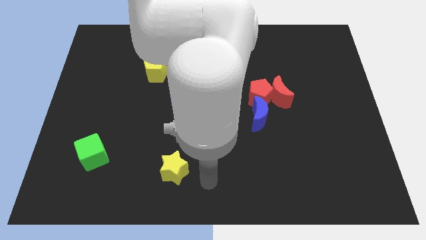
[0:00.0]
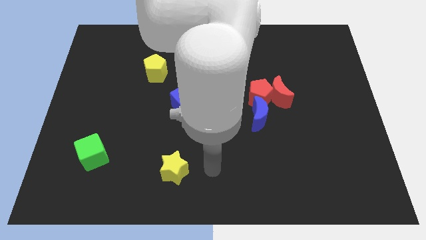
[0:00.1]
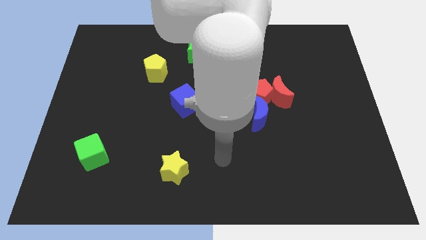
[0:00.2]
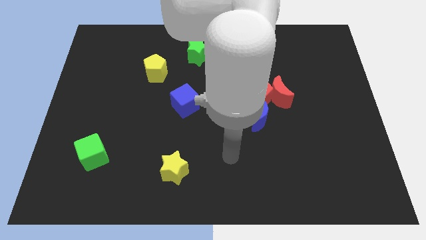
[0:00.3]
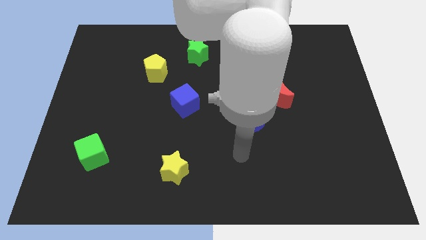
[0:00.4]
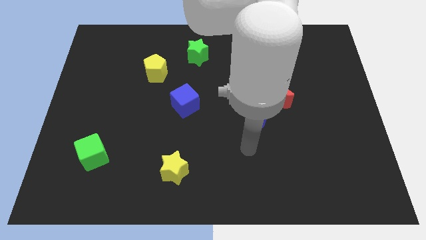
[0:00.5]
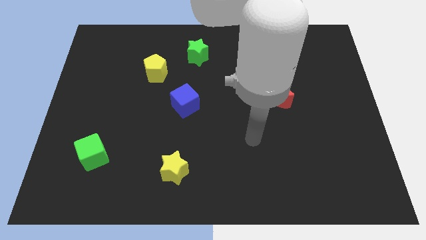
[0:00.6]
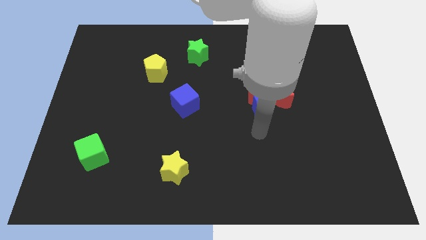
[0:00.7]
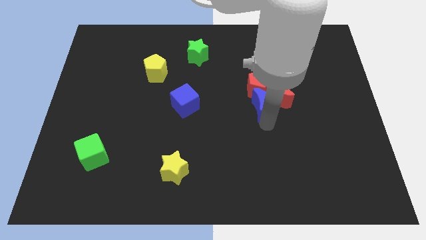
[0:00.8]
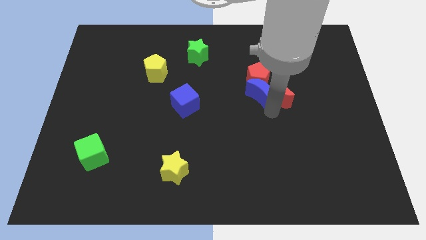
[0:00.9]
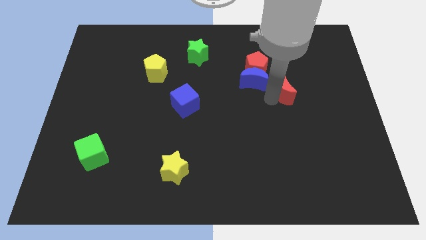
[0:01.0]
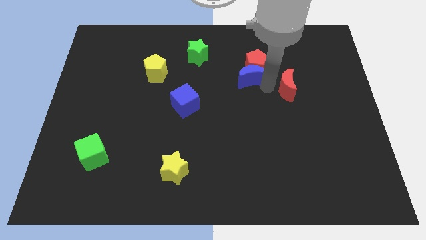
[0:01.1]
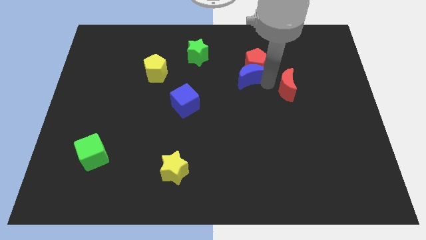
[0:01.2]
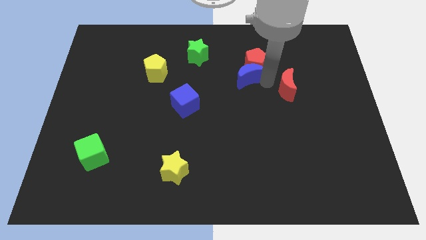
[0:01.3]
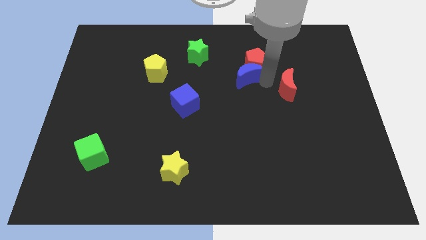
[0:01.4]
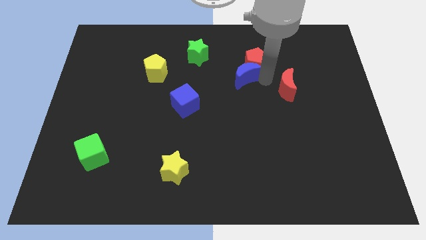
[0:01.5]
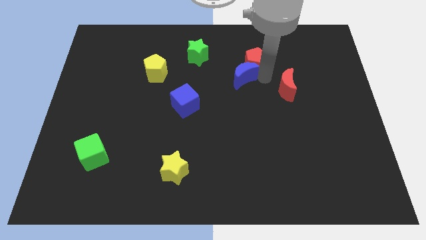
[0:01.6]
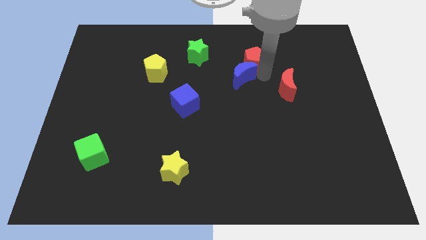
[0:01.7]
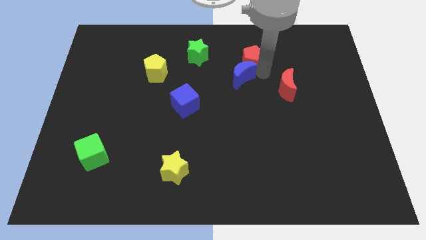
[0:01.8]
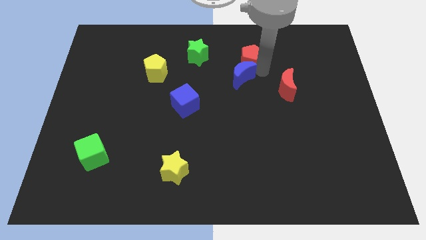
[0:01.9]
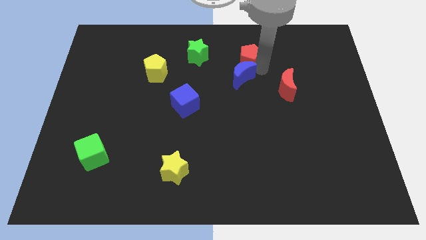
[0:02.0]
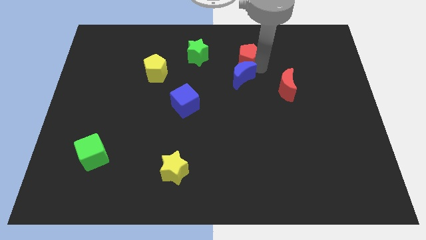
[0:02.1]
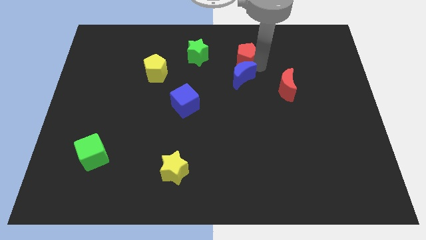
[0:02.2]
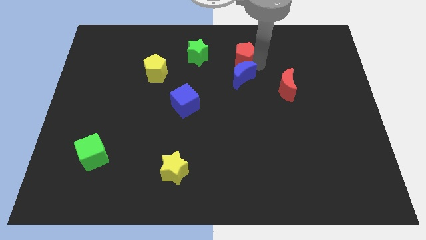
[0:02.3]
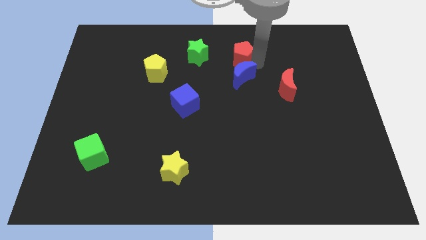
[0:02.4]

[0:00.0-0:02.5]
separate the red pentagon from the red moon and blue moon

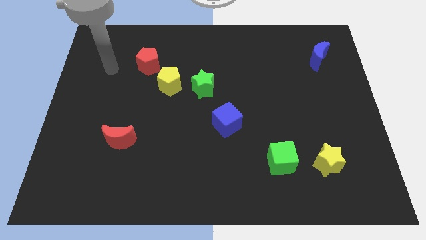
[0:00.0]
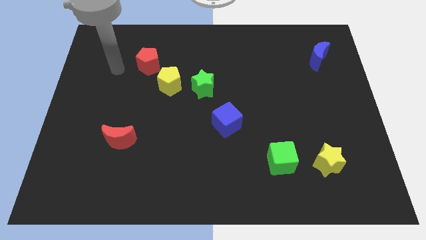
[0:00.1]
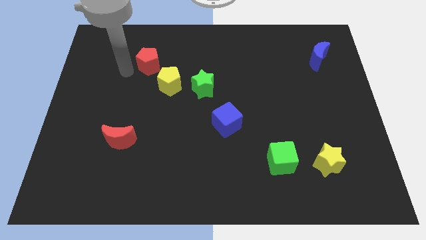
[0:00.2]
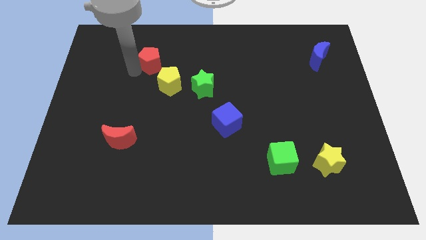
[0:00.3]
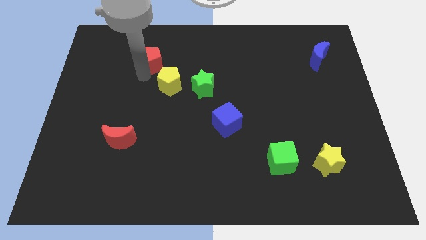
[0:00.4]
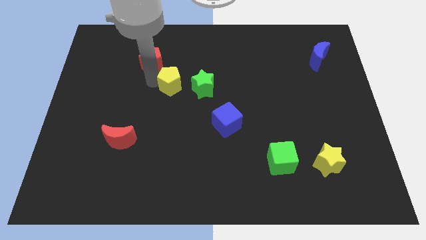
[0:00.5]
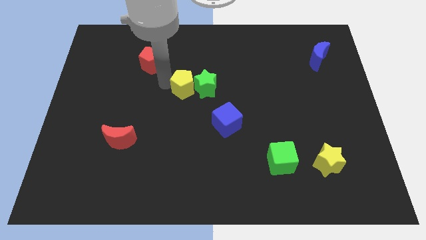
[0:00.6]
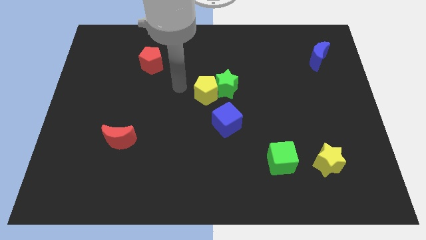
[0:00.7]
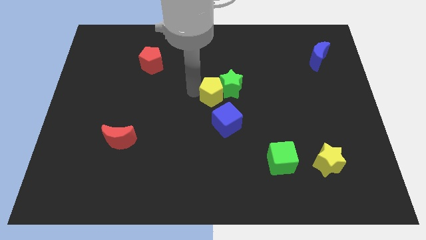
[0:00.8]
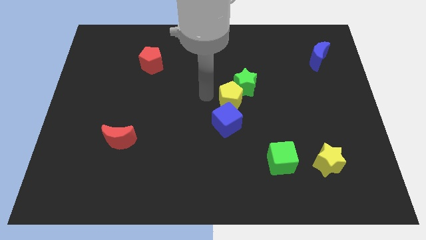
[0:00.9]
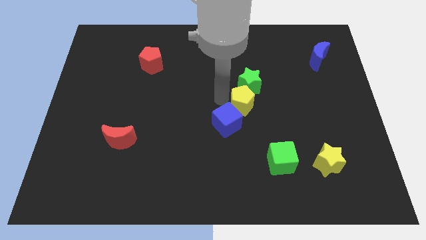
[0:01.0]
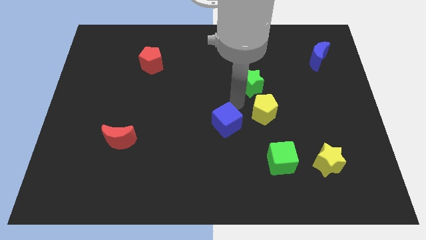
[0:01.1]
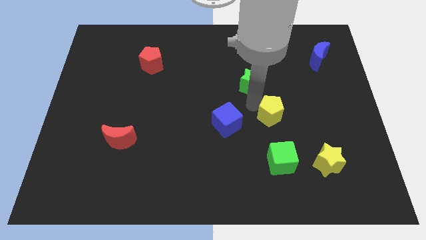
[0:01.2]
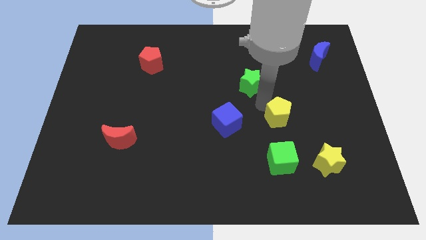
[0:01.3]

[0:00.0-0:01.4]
move the green star away from the yellow pentagon

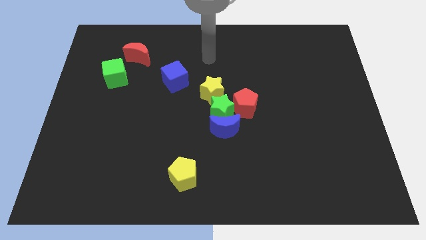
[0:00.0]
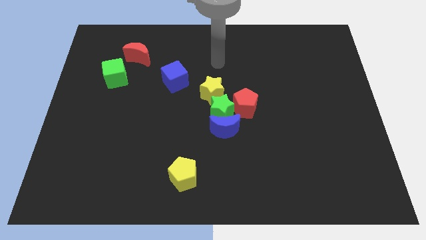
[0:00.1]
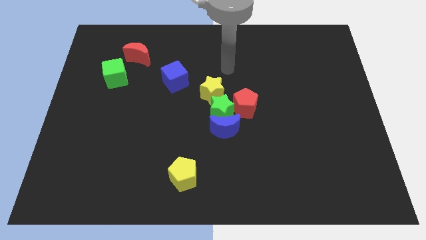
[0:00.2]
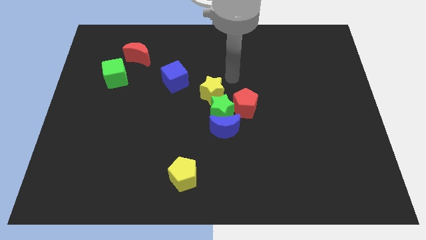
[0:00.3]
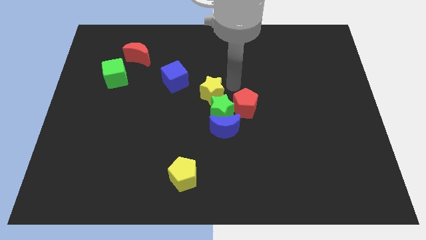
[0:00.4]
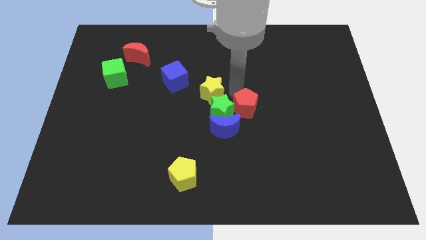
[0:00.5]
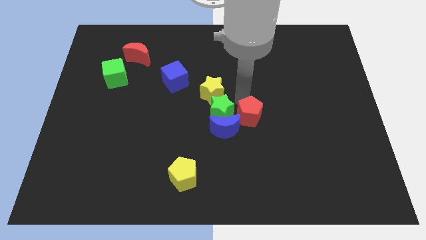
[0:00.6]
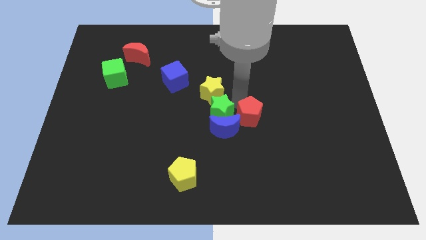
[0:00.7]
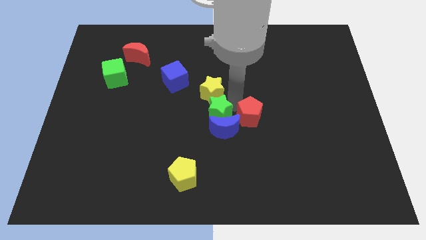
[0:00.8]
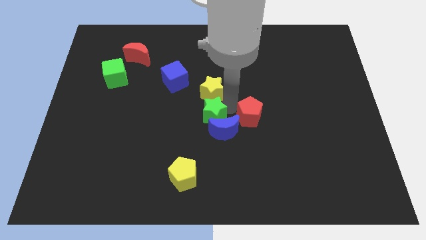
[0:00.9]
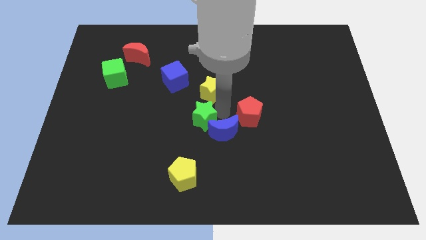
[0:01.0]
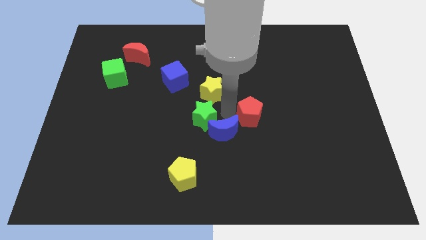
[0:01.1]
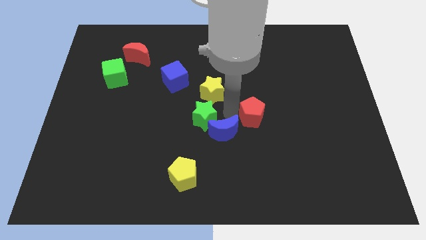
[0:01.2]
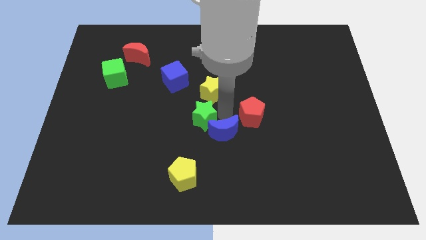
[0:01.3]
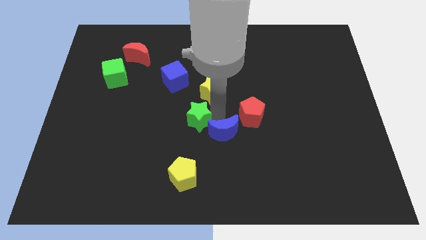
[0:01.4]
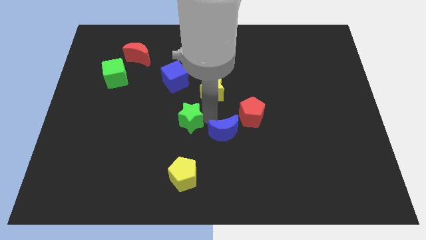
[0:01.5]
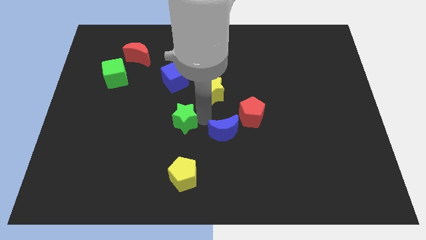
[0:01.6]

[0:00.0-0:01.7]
move the green star away from the group of blocks

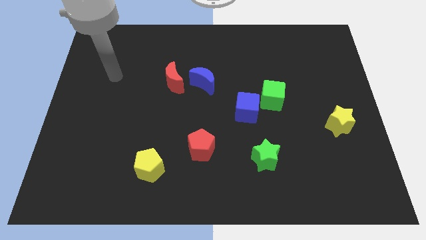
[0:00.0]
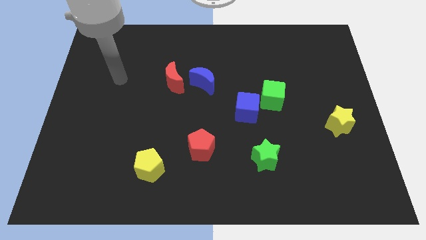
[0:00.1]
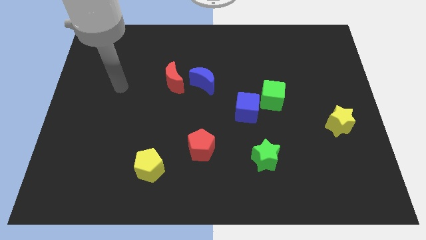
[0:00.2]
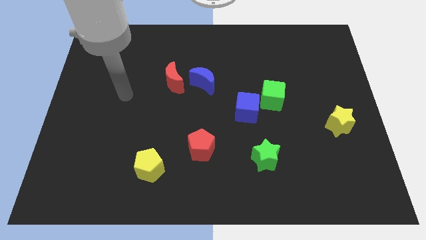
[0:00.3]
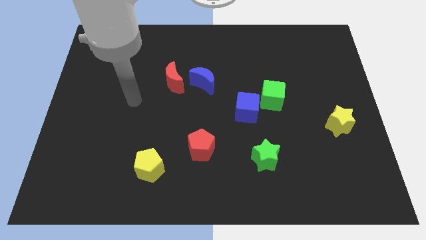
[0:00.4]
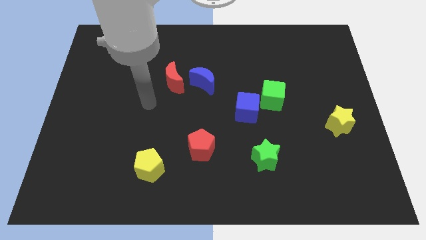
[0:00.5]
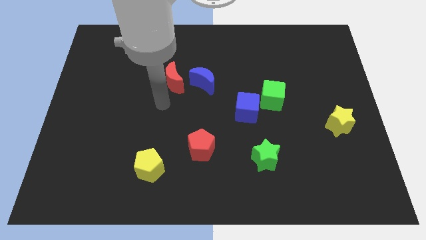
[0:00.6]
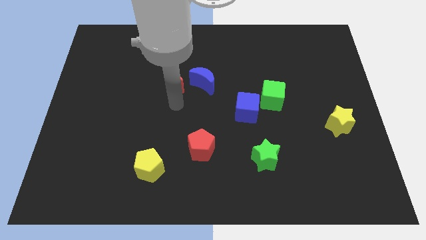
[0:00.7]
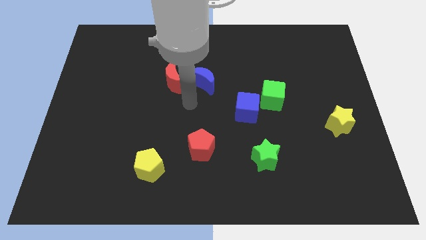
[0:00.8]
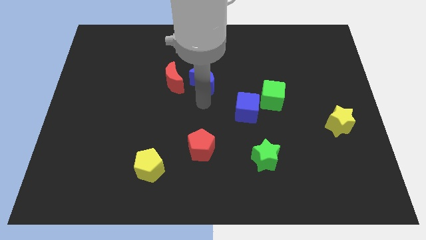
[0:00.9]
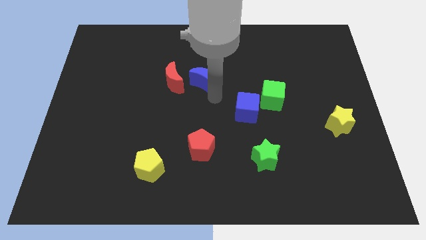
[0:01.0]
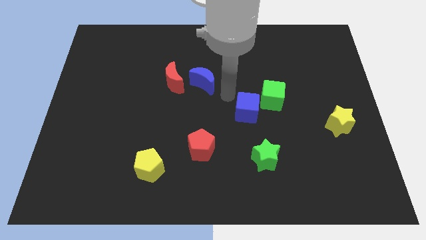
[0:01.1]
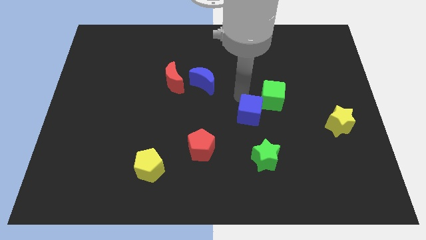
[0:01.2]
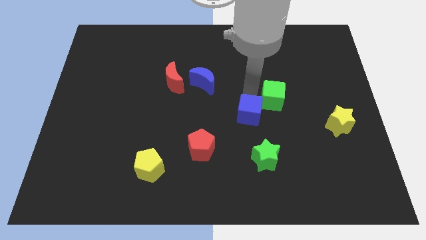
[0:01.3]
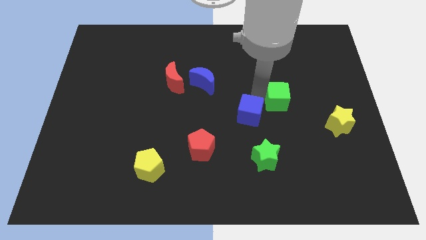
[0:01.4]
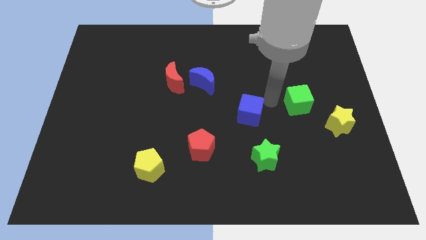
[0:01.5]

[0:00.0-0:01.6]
pull the blue cube apart from the green cube

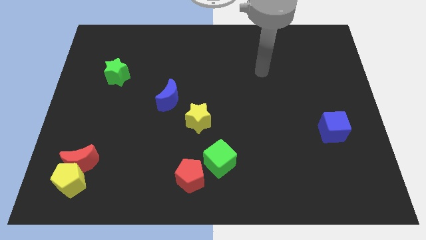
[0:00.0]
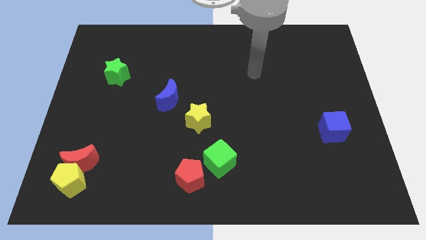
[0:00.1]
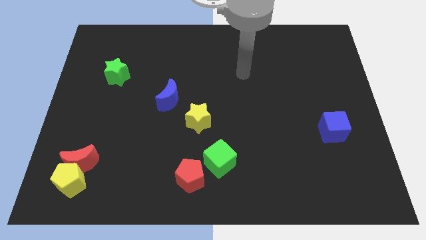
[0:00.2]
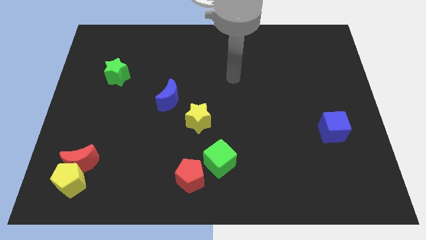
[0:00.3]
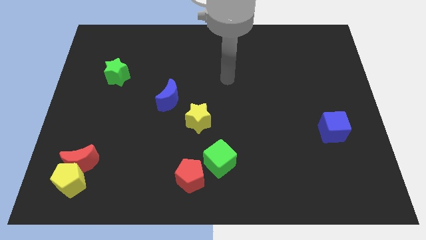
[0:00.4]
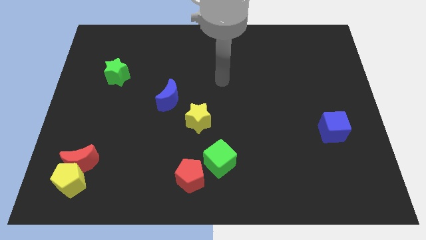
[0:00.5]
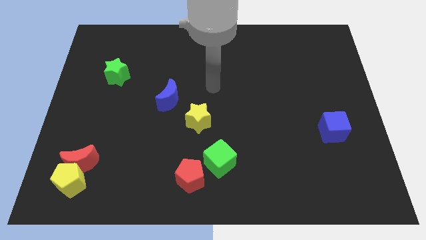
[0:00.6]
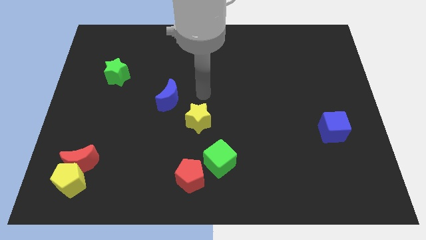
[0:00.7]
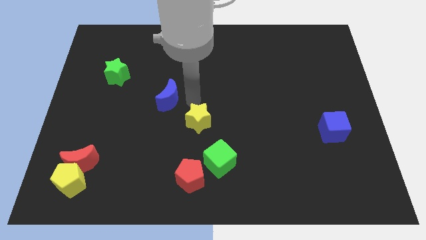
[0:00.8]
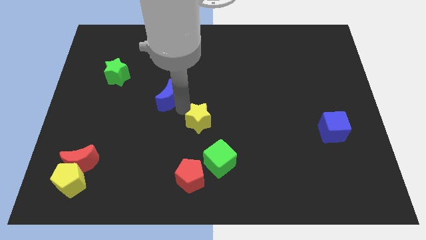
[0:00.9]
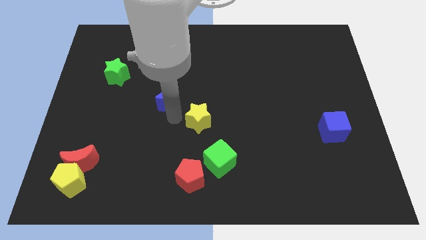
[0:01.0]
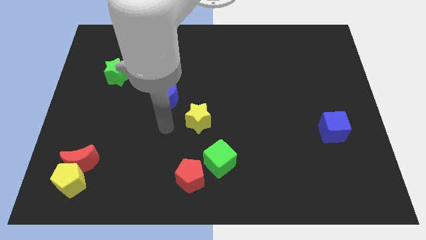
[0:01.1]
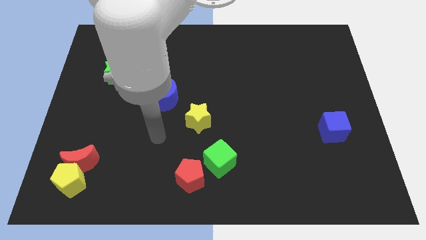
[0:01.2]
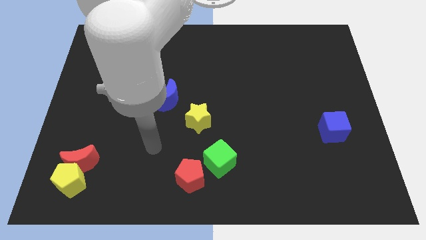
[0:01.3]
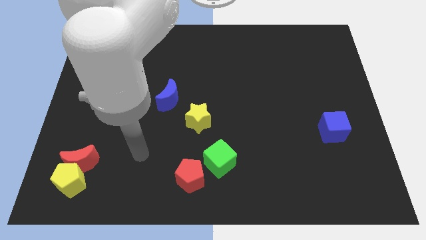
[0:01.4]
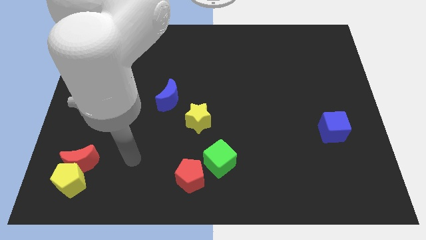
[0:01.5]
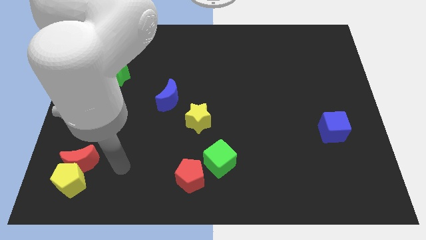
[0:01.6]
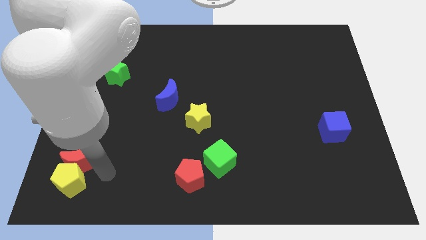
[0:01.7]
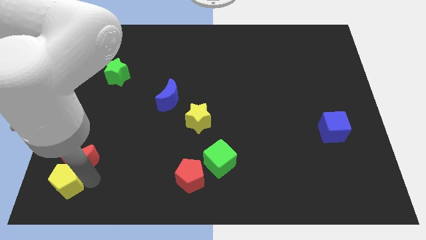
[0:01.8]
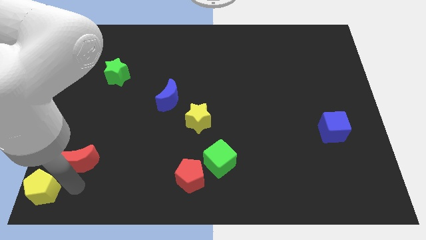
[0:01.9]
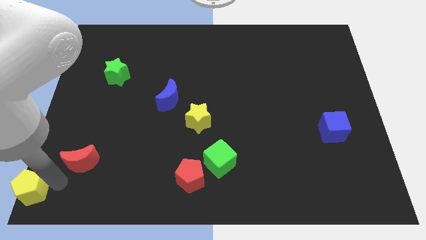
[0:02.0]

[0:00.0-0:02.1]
move the red moon away from the yellow pentagon
